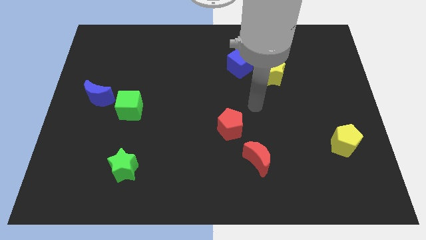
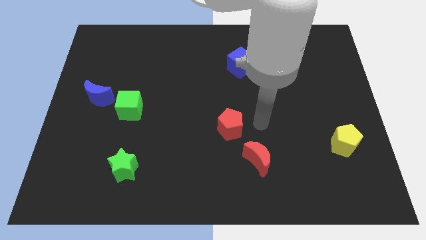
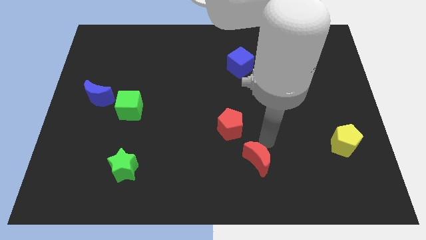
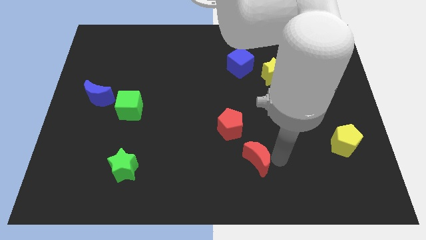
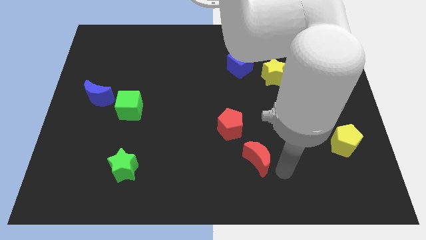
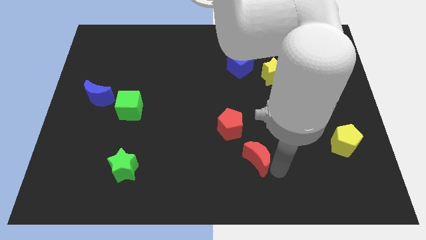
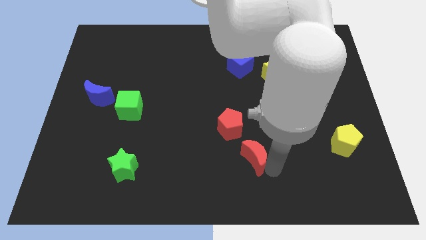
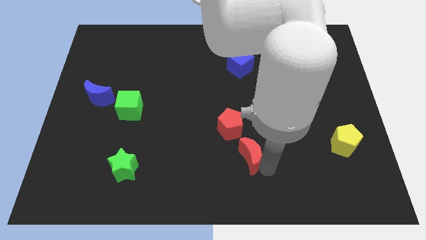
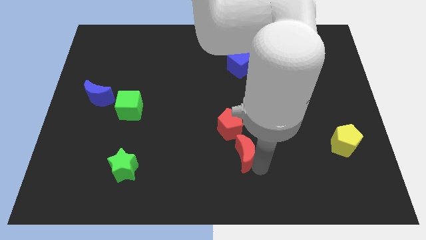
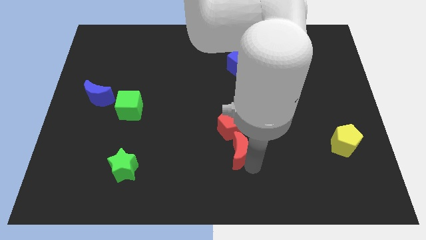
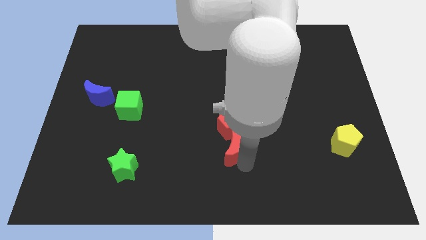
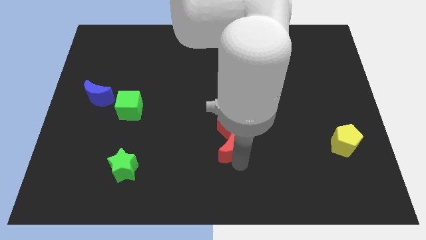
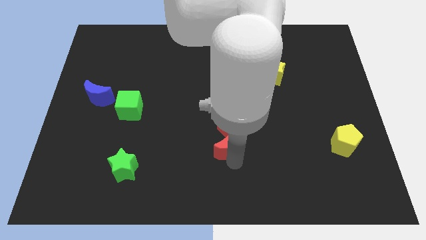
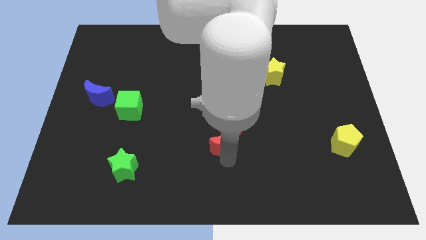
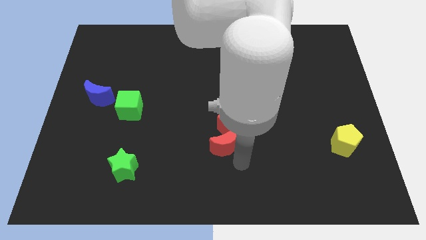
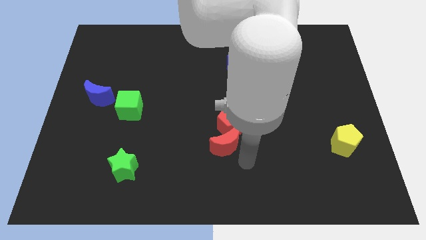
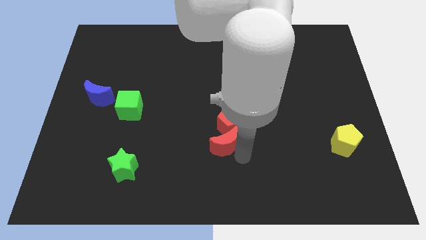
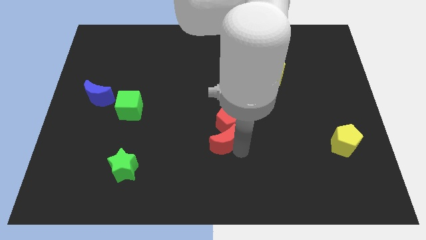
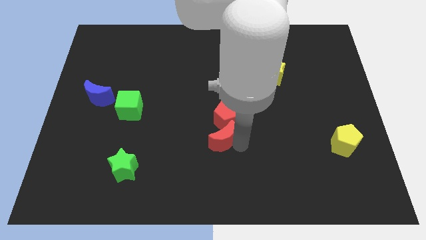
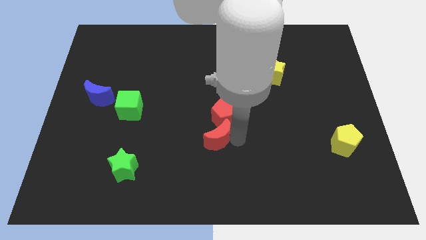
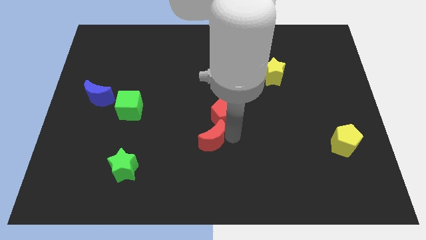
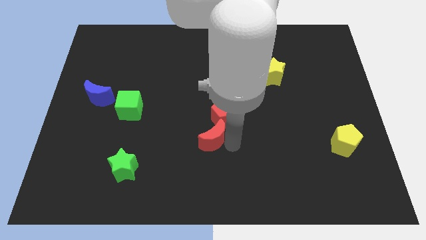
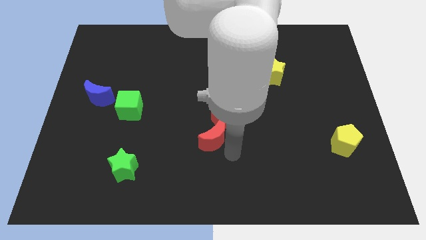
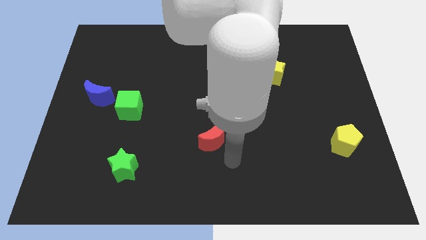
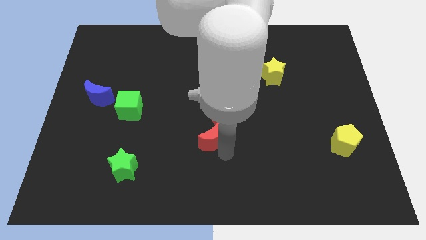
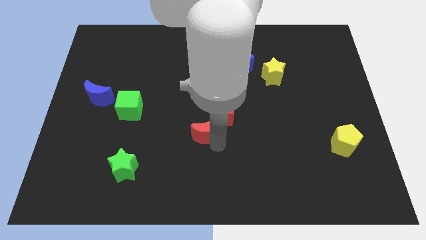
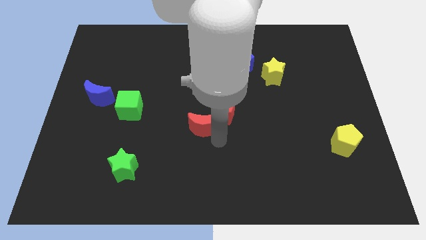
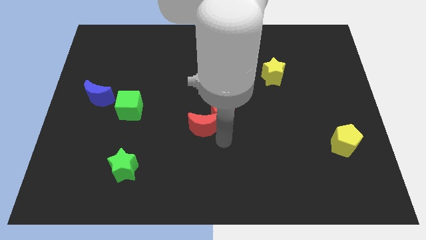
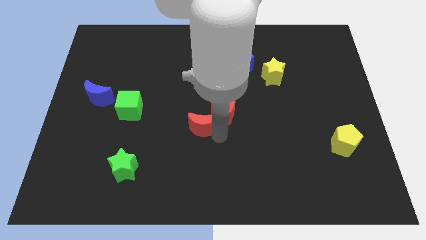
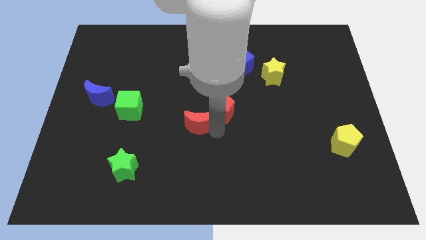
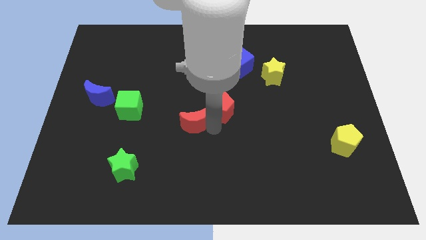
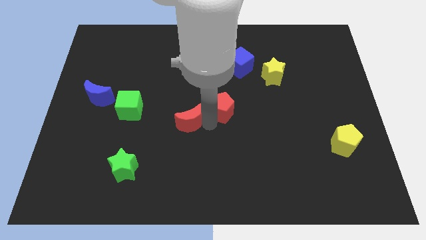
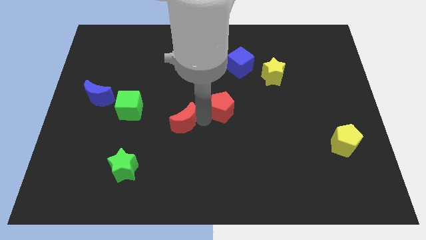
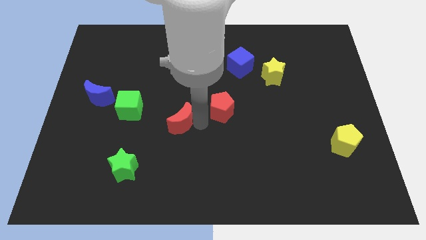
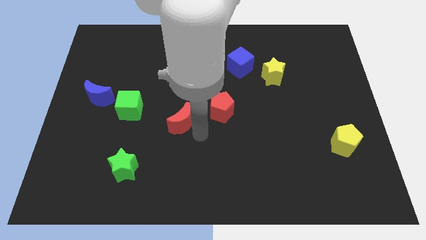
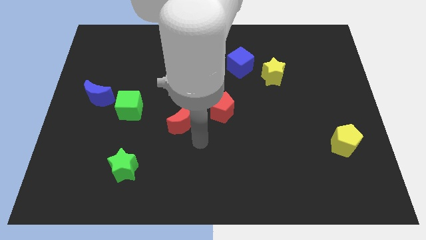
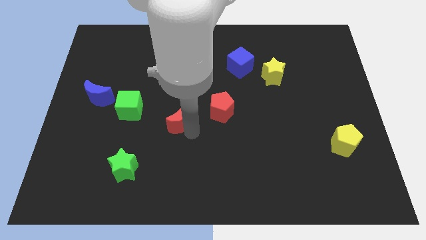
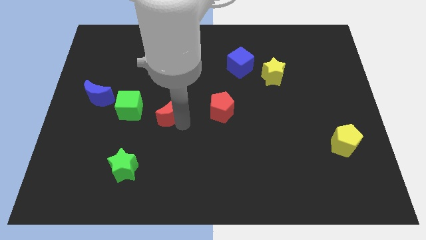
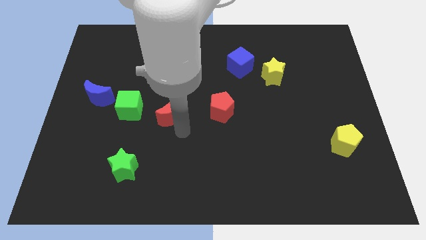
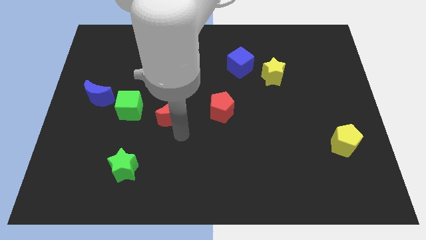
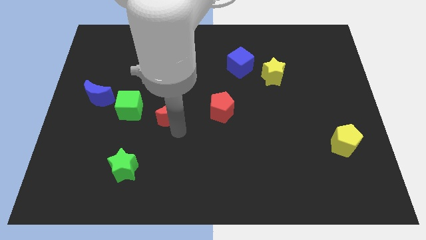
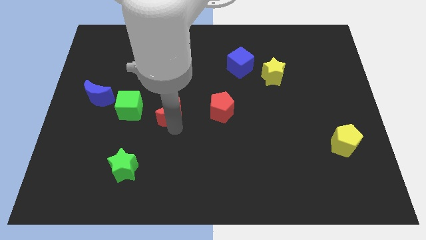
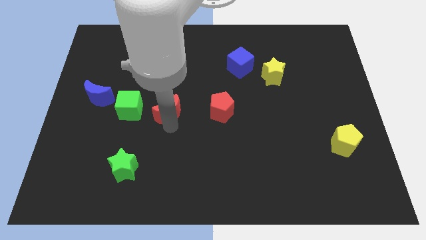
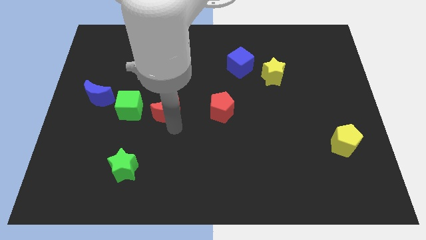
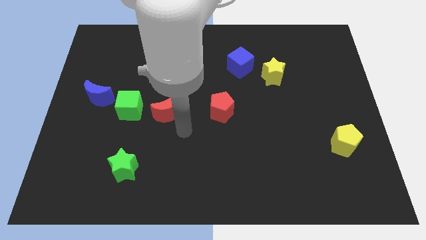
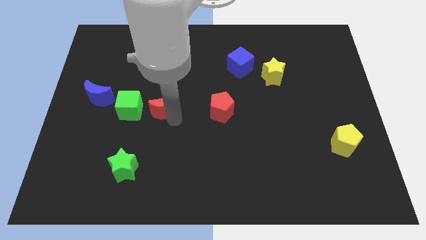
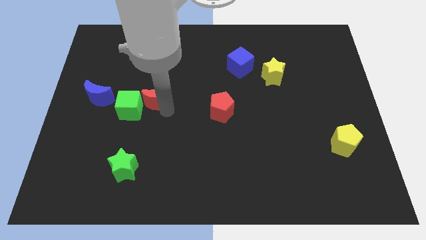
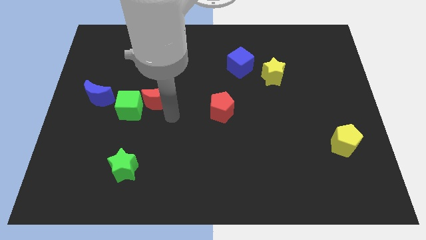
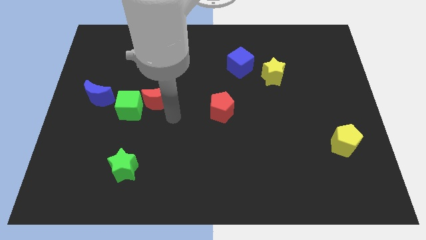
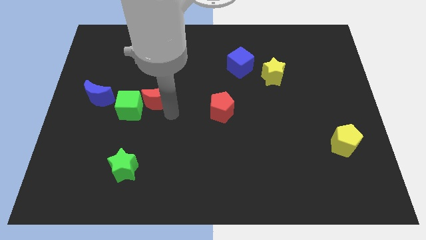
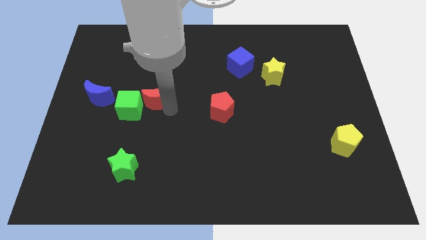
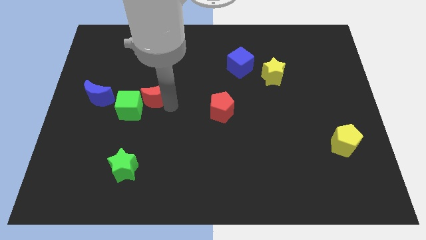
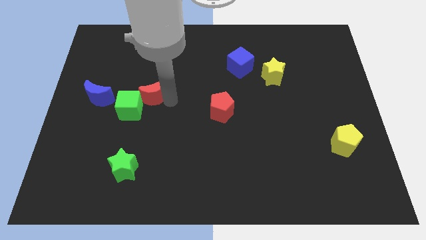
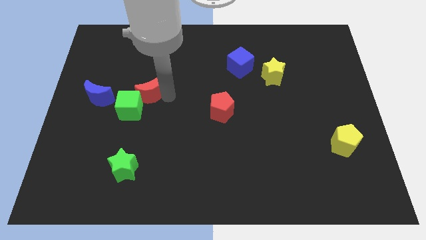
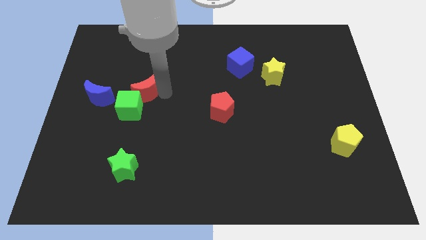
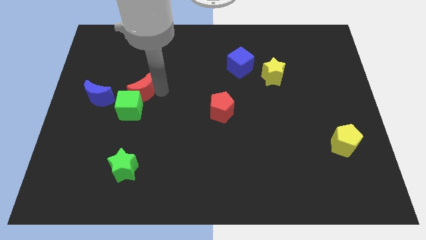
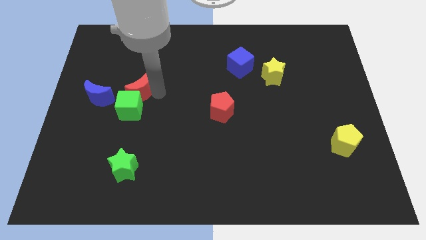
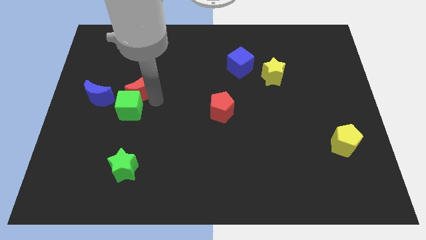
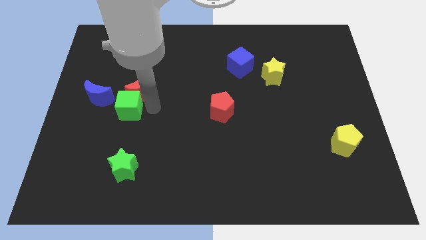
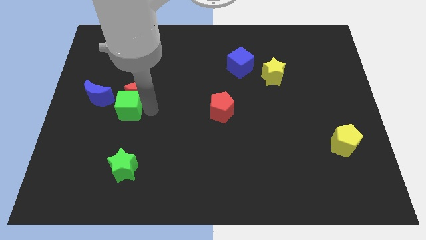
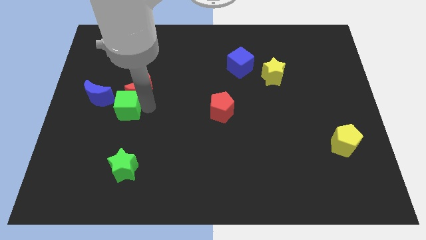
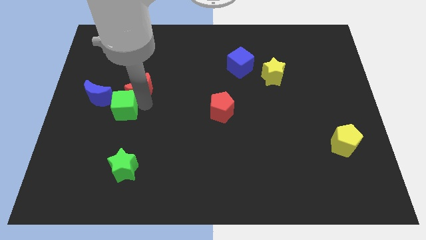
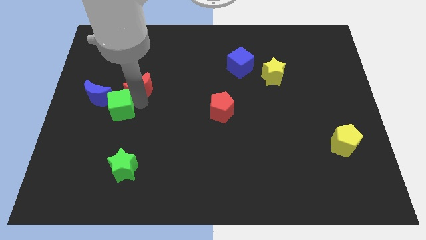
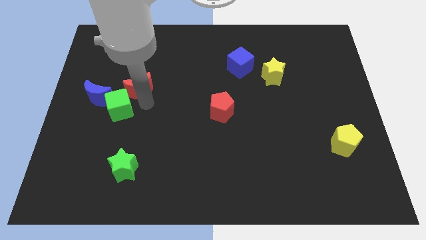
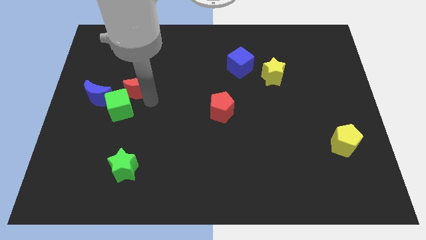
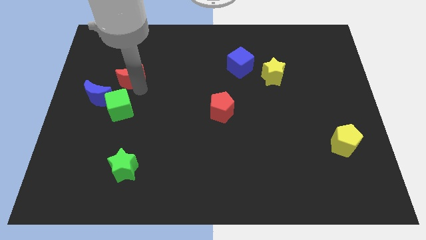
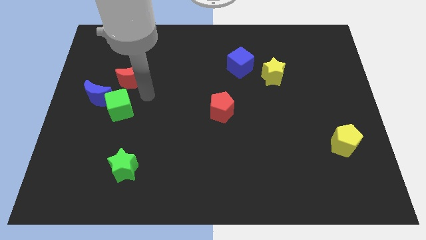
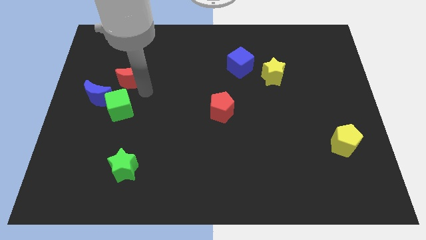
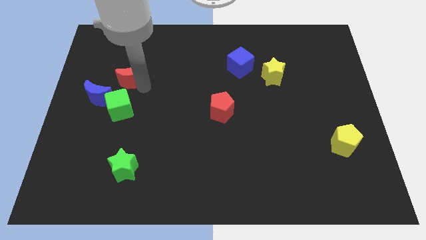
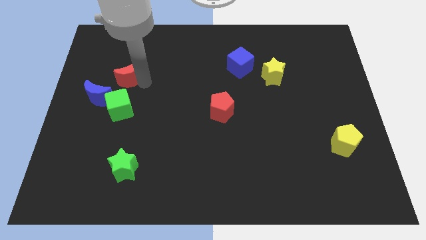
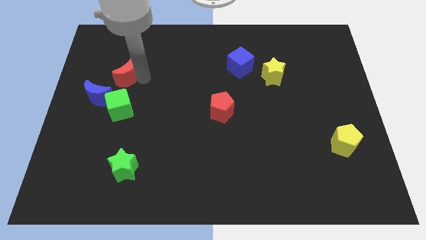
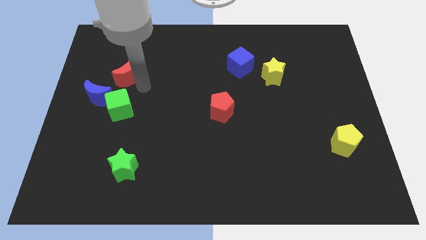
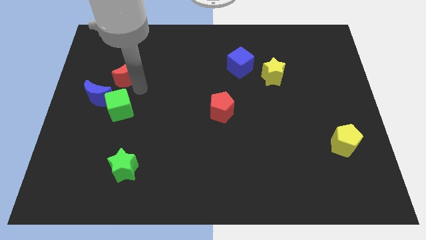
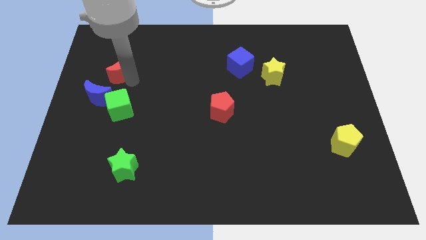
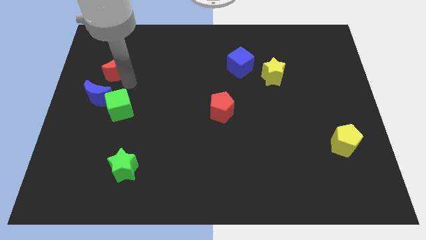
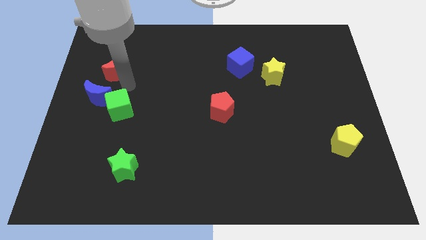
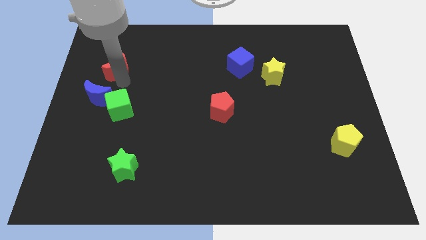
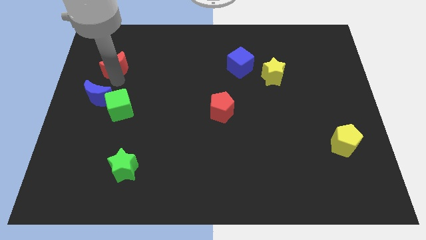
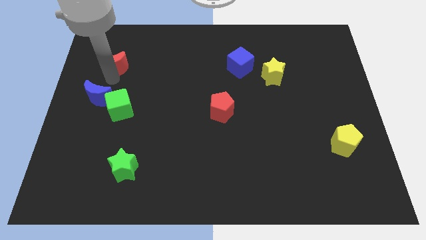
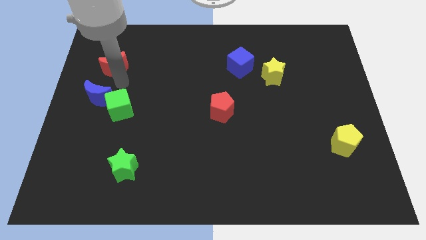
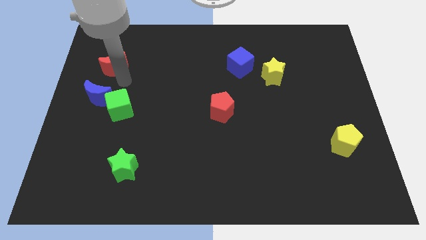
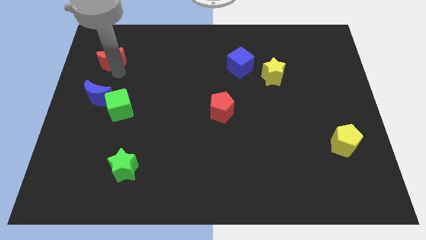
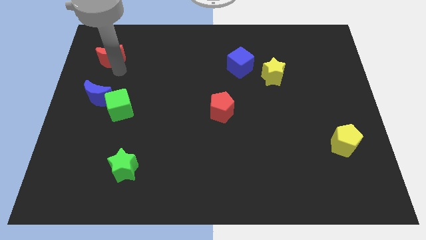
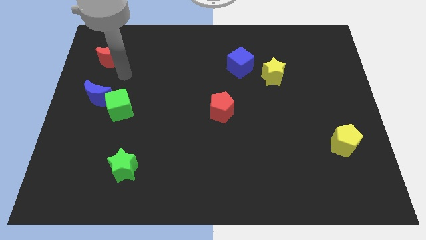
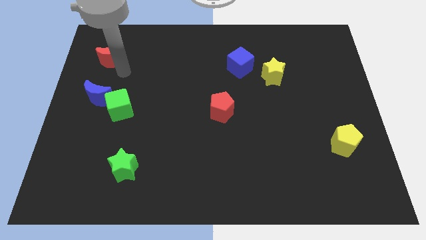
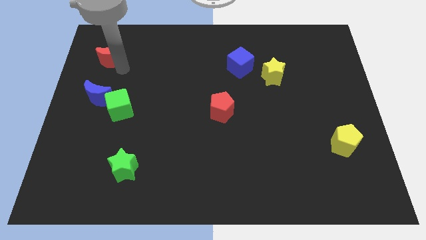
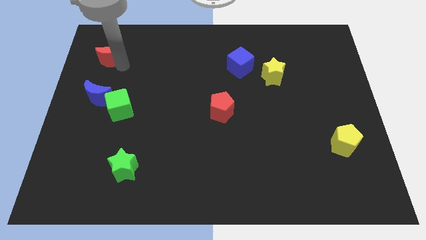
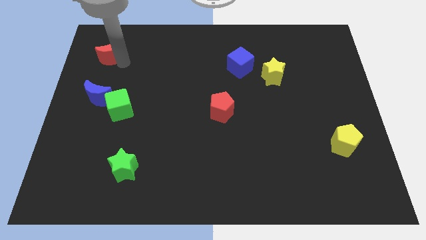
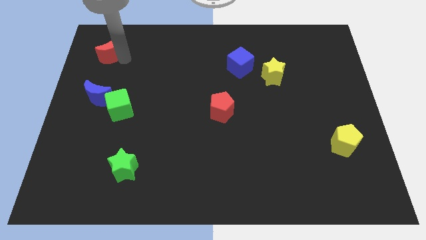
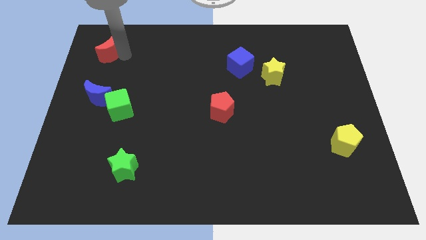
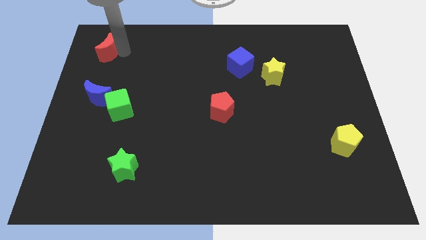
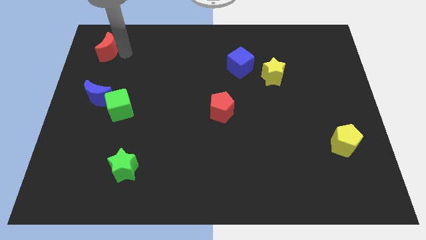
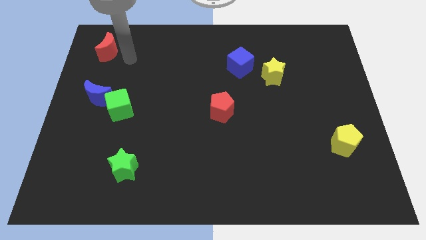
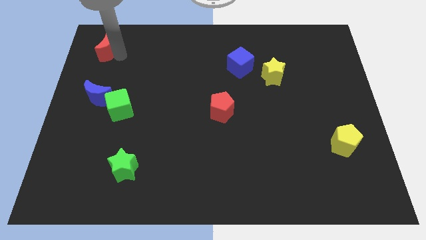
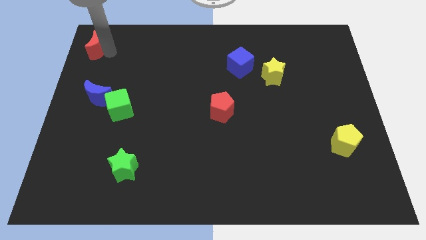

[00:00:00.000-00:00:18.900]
push the red moon to the top left corner
